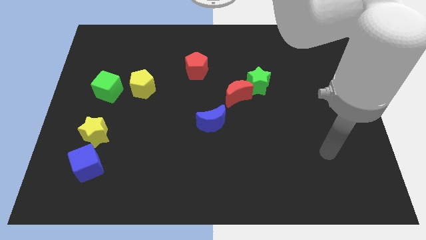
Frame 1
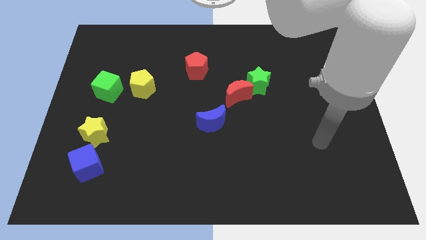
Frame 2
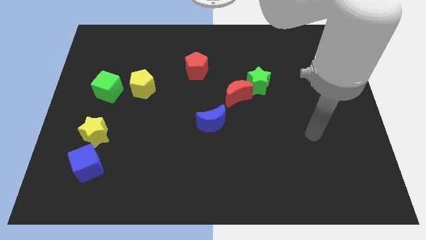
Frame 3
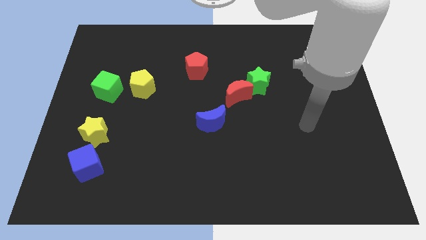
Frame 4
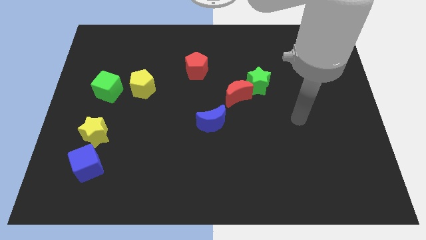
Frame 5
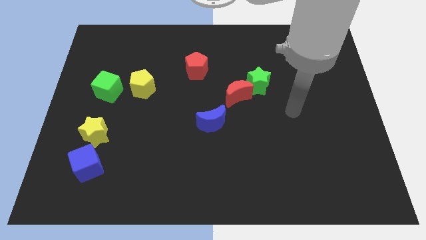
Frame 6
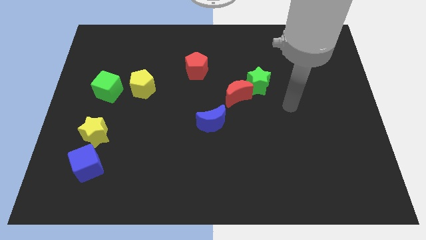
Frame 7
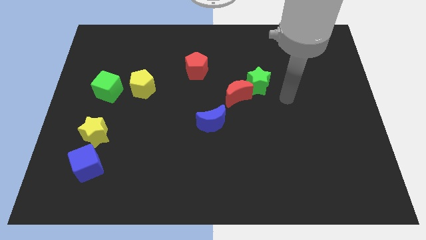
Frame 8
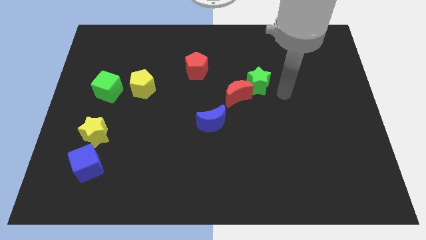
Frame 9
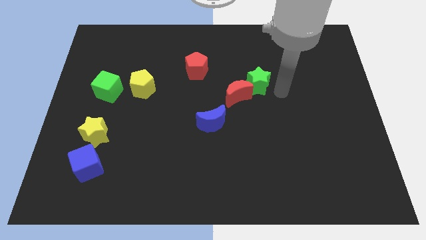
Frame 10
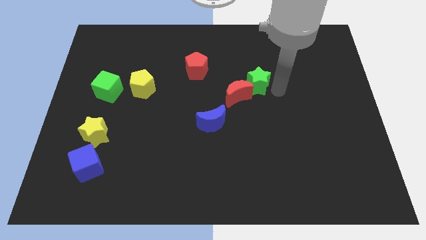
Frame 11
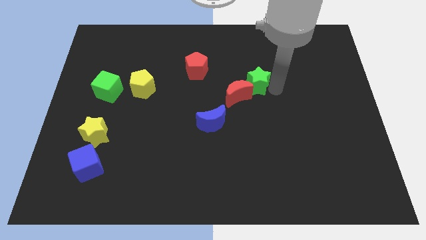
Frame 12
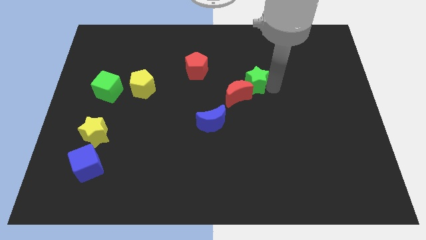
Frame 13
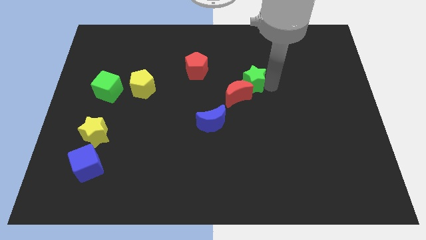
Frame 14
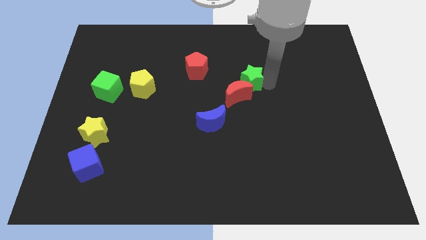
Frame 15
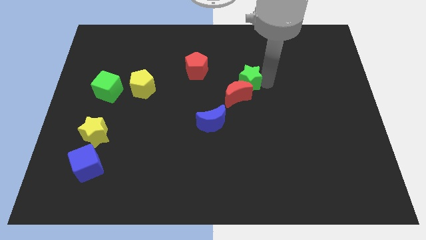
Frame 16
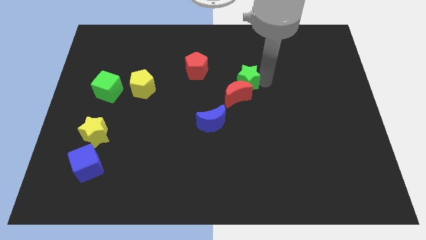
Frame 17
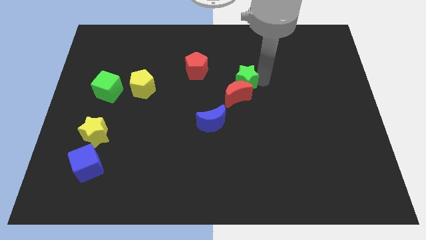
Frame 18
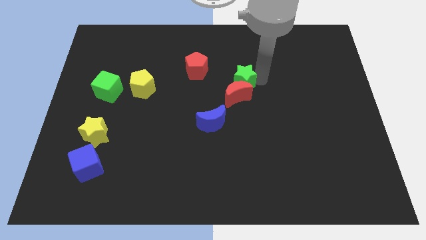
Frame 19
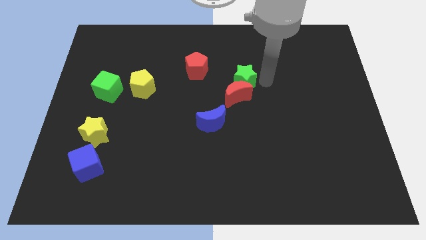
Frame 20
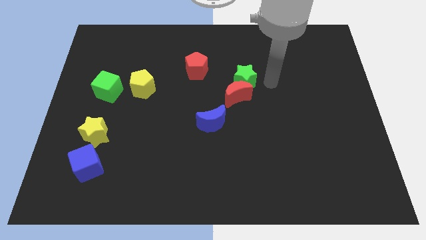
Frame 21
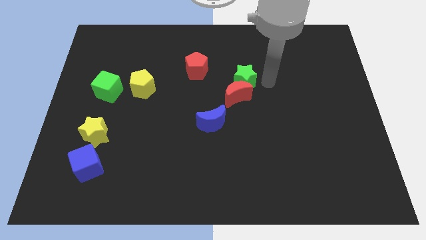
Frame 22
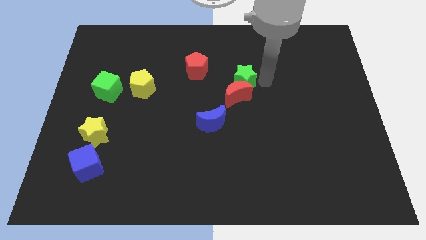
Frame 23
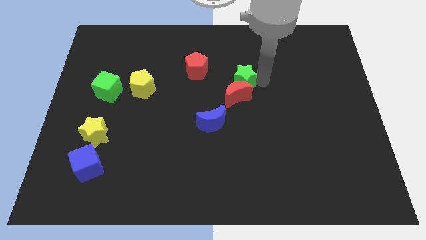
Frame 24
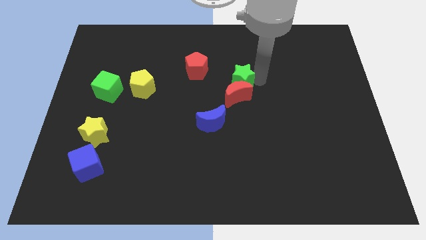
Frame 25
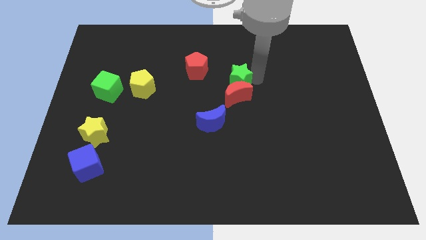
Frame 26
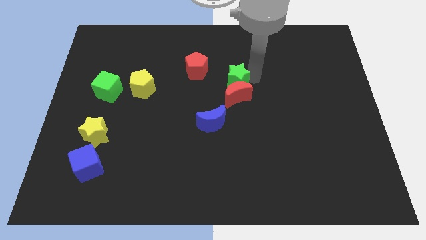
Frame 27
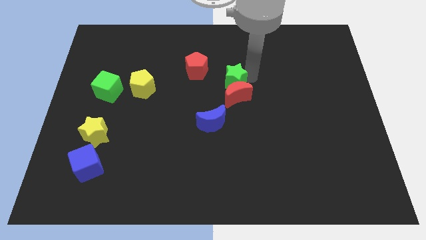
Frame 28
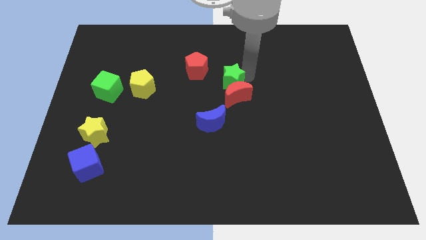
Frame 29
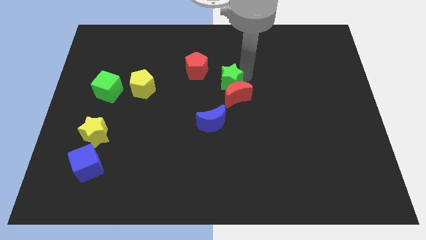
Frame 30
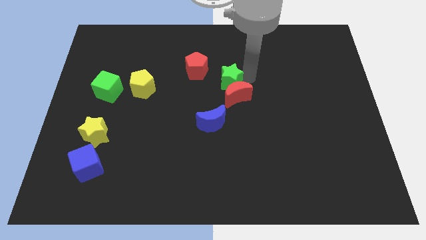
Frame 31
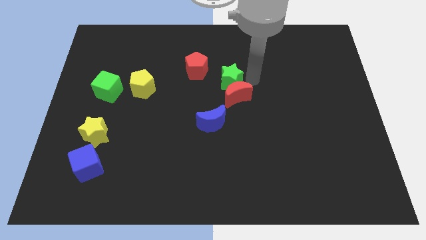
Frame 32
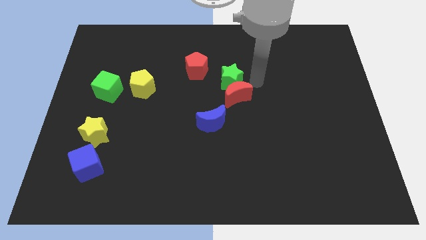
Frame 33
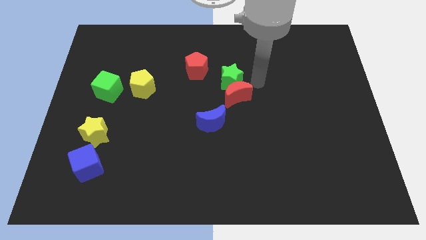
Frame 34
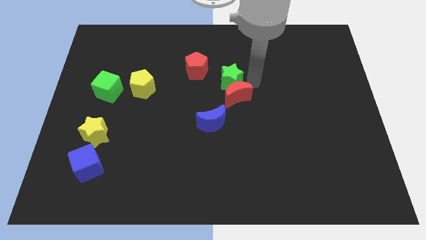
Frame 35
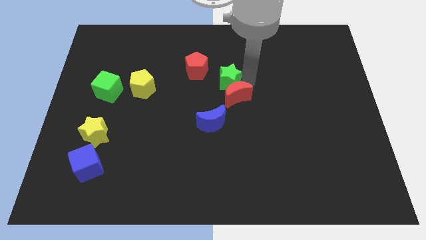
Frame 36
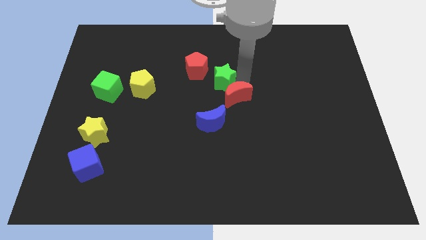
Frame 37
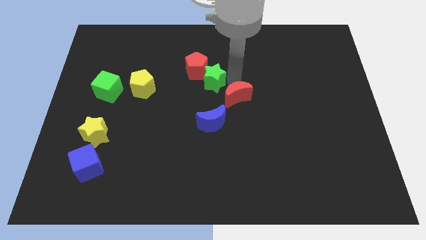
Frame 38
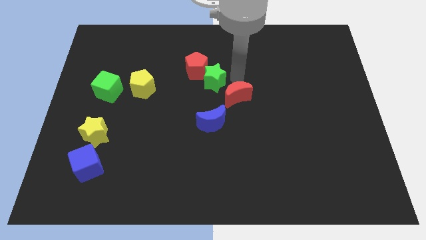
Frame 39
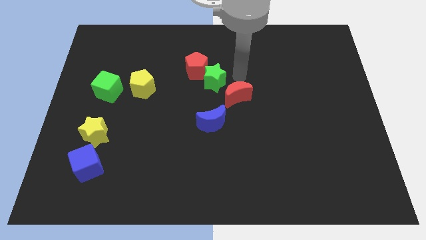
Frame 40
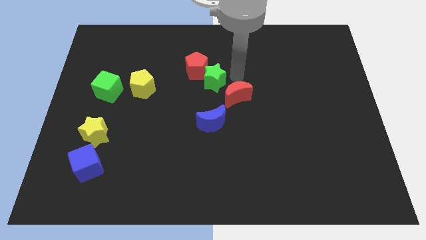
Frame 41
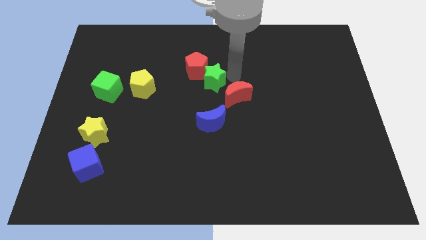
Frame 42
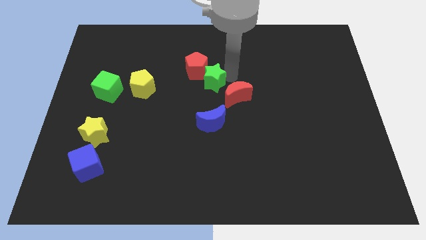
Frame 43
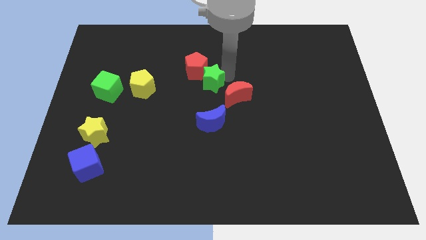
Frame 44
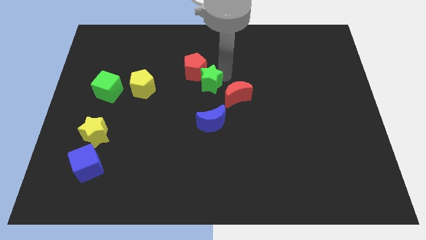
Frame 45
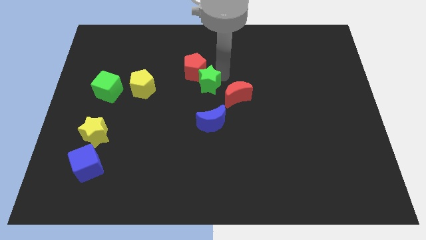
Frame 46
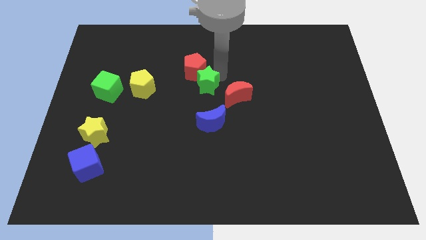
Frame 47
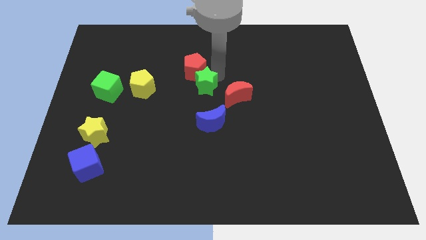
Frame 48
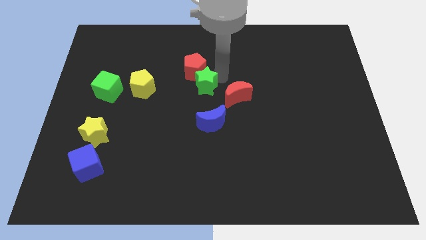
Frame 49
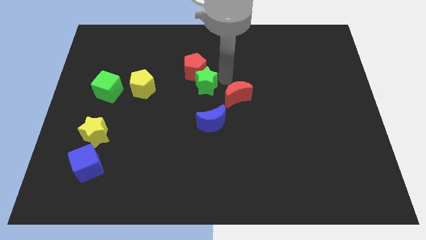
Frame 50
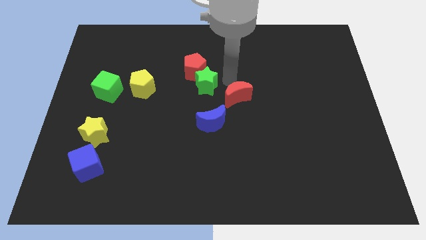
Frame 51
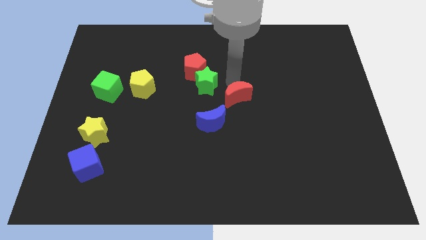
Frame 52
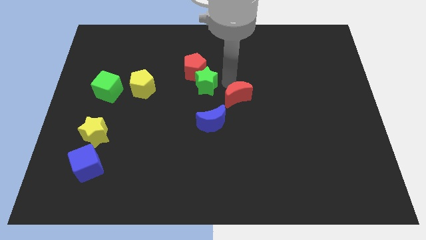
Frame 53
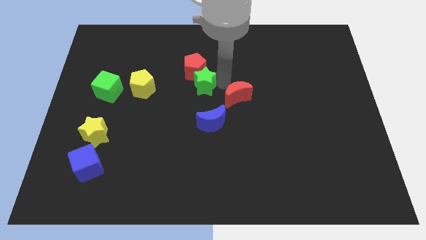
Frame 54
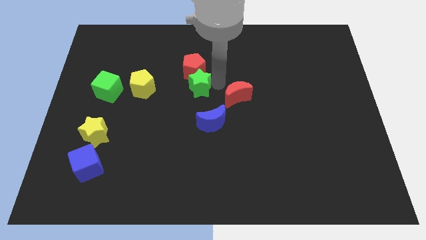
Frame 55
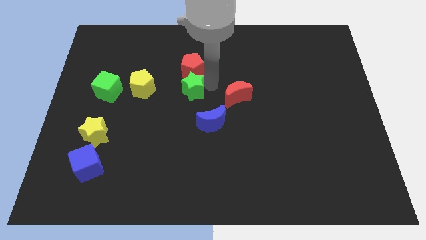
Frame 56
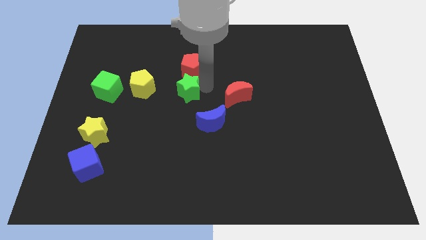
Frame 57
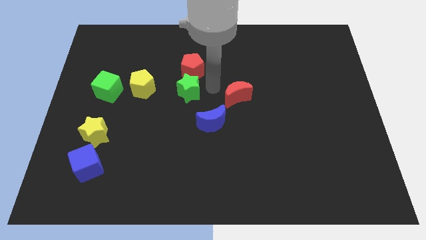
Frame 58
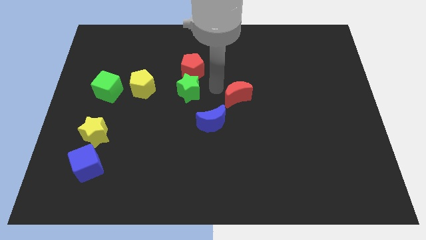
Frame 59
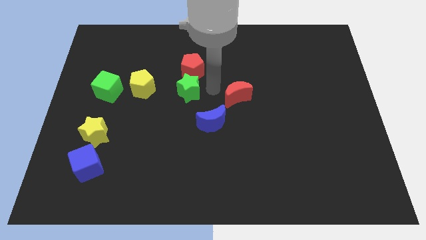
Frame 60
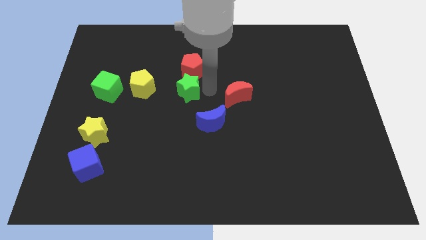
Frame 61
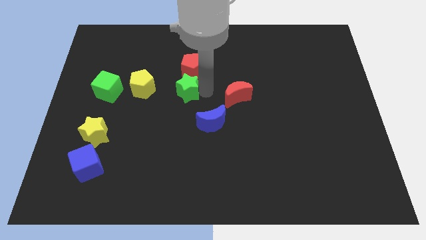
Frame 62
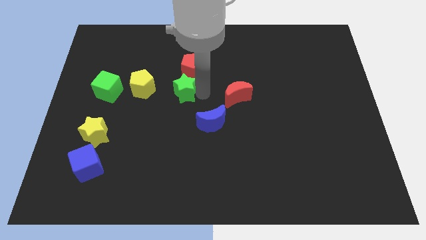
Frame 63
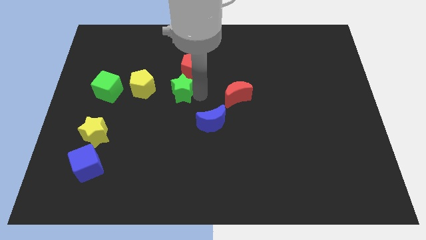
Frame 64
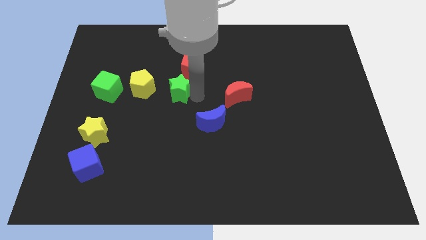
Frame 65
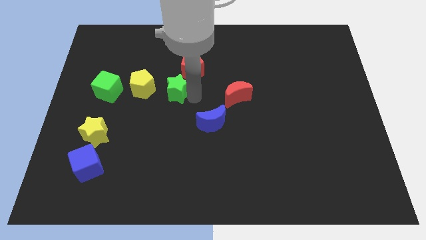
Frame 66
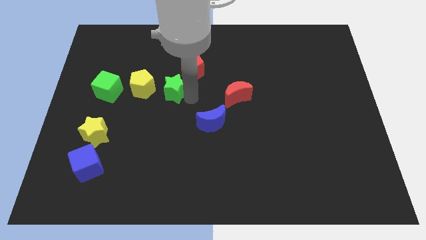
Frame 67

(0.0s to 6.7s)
move the green star to the left

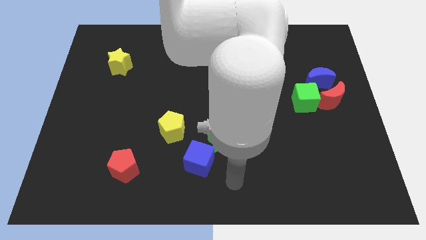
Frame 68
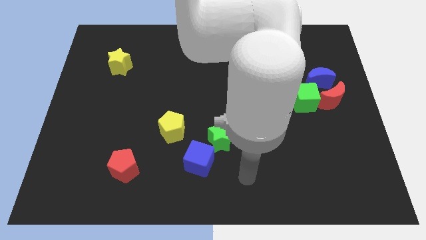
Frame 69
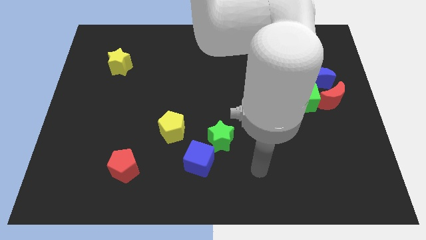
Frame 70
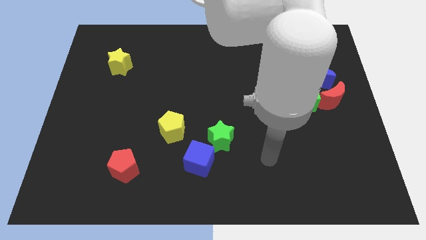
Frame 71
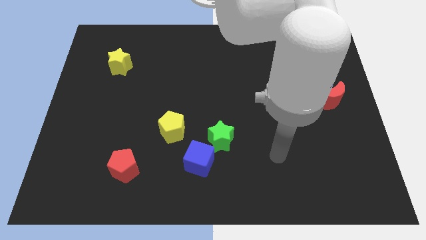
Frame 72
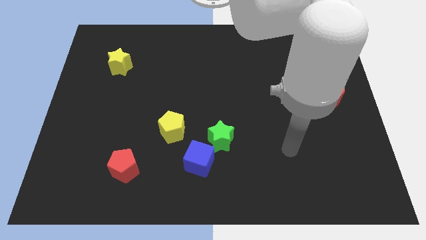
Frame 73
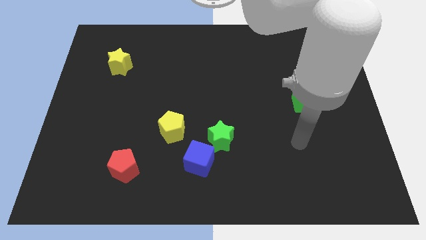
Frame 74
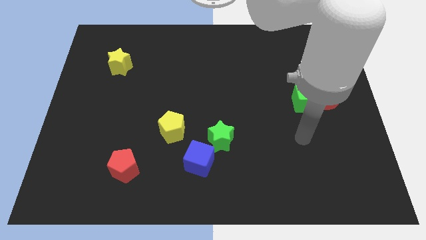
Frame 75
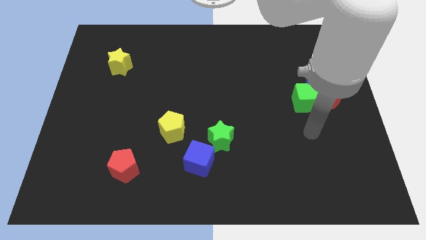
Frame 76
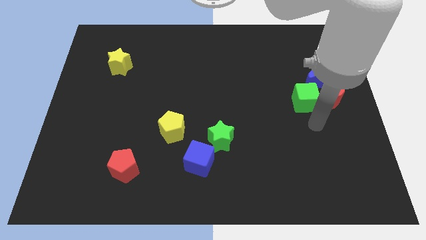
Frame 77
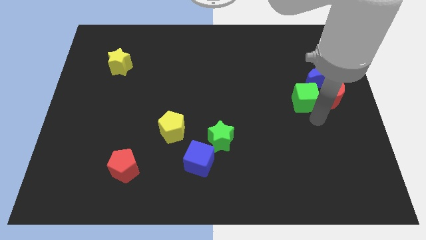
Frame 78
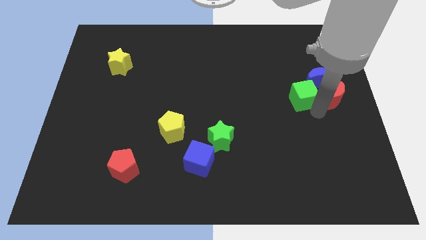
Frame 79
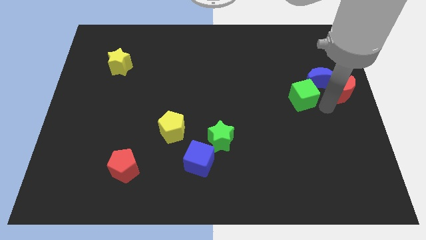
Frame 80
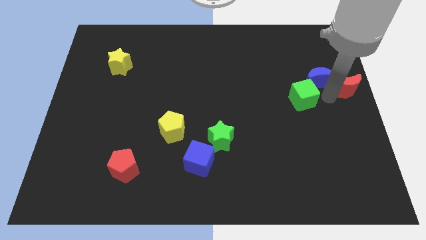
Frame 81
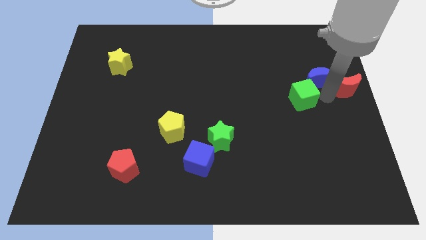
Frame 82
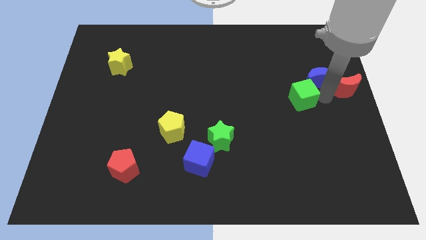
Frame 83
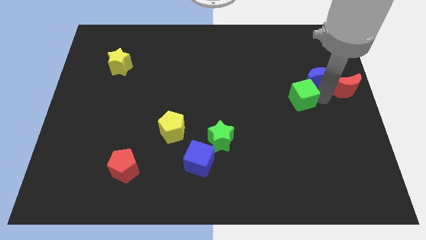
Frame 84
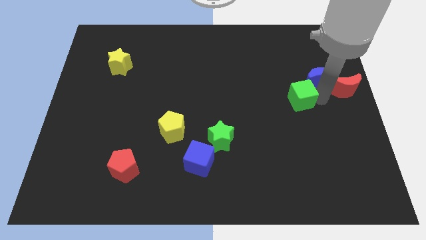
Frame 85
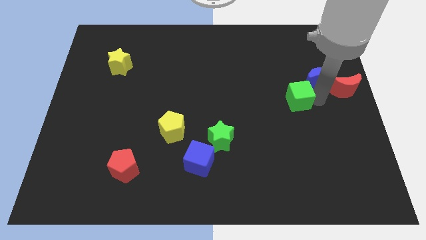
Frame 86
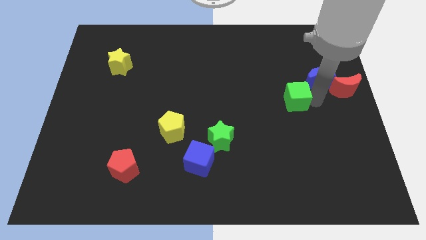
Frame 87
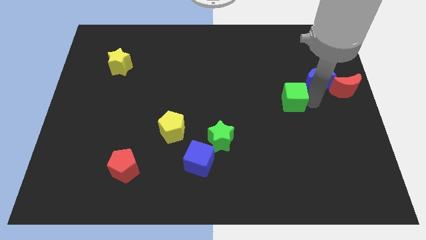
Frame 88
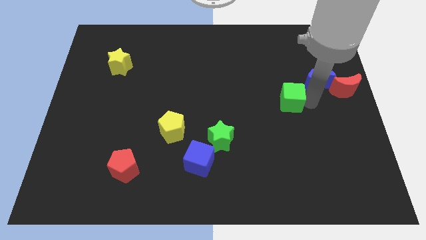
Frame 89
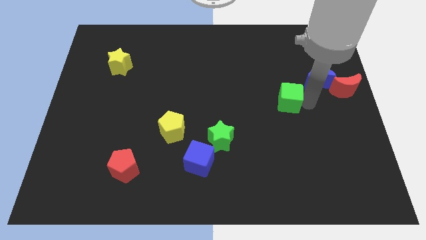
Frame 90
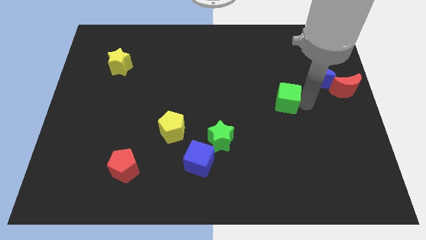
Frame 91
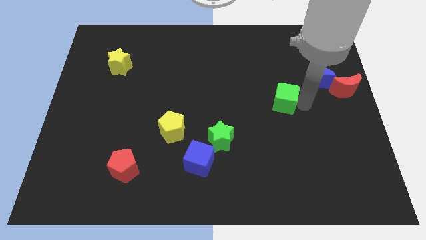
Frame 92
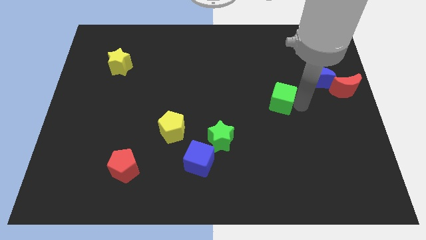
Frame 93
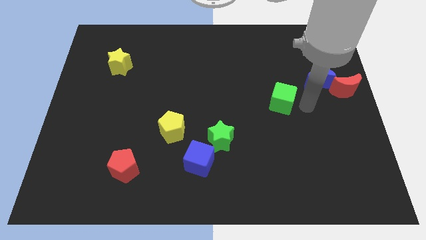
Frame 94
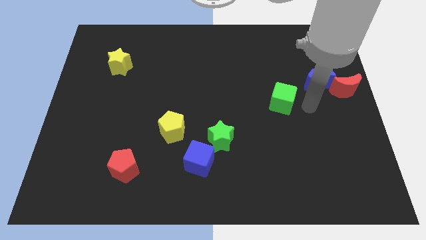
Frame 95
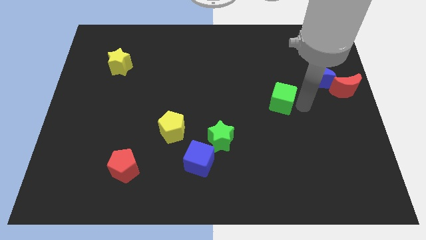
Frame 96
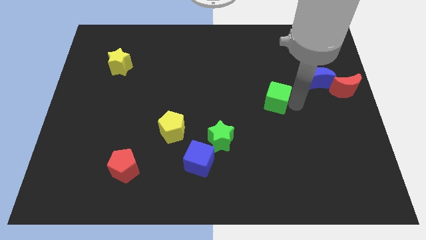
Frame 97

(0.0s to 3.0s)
push the green cube somewhat left
